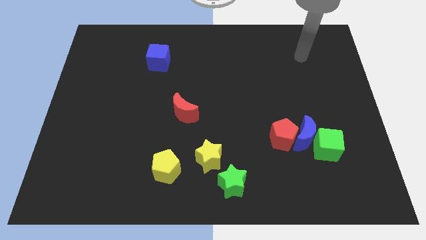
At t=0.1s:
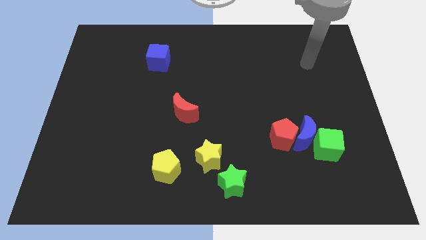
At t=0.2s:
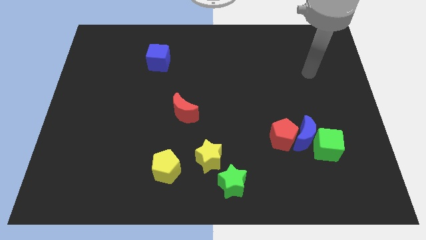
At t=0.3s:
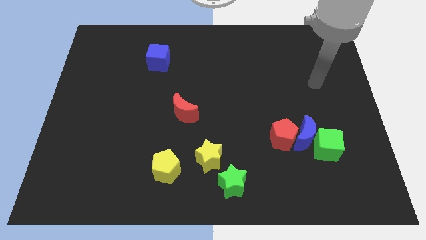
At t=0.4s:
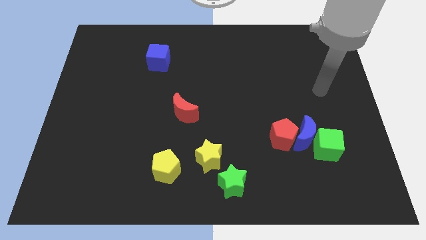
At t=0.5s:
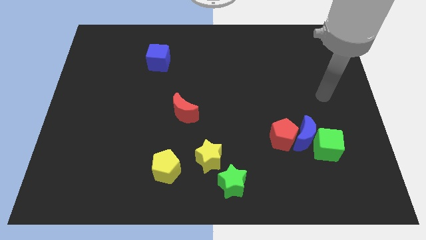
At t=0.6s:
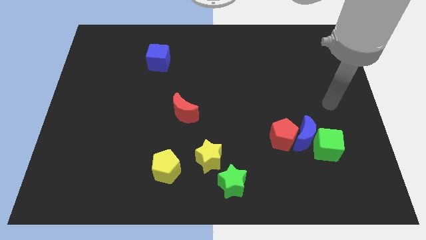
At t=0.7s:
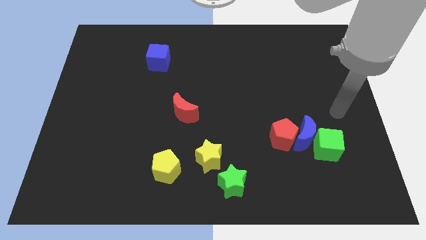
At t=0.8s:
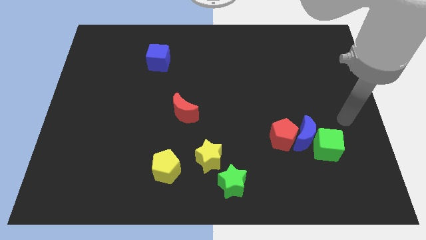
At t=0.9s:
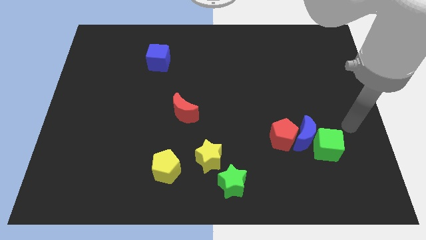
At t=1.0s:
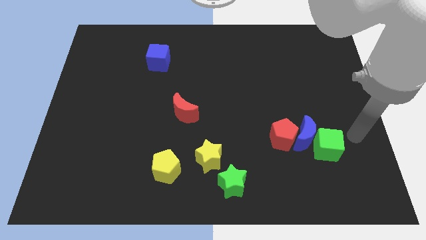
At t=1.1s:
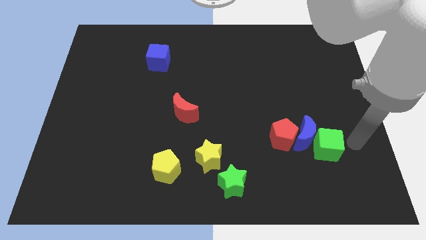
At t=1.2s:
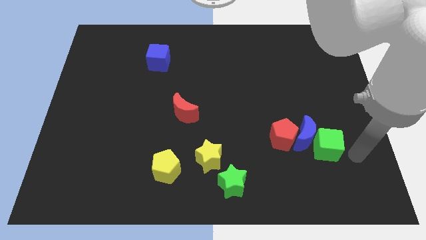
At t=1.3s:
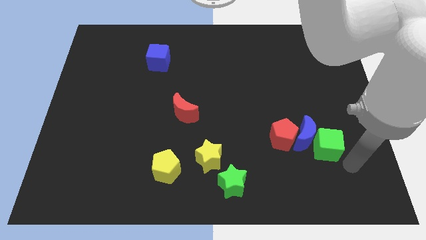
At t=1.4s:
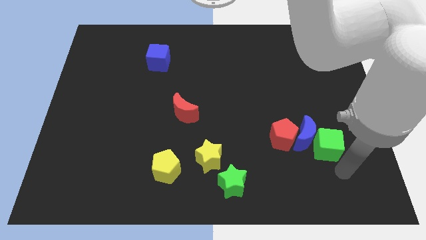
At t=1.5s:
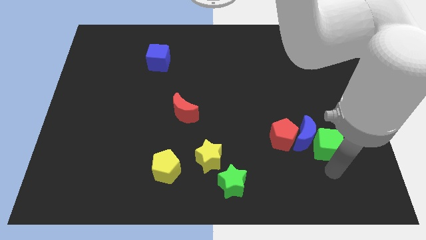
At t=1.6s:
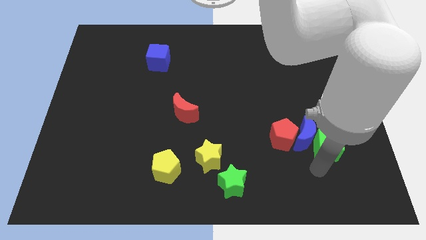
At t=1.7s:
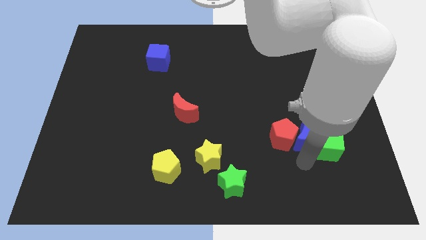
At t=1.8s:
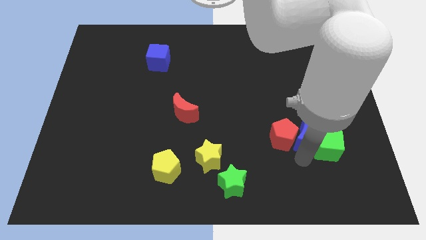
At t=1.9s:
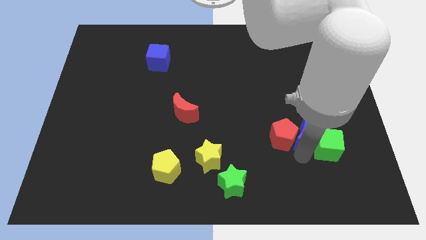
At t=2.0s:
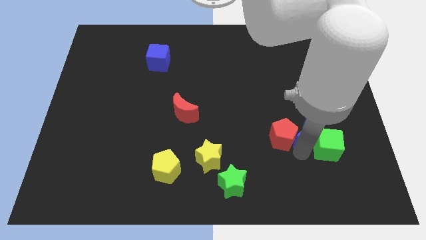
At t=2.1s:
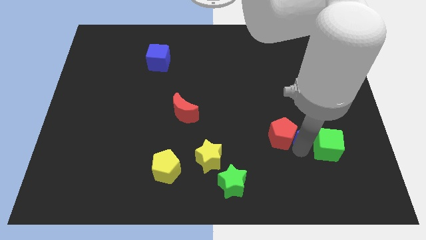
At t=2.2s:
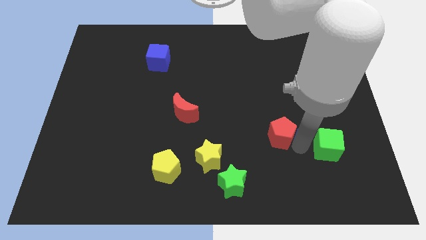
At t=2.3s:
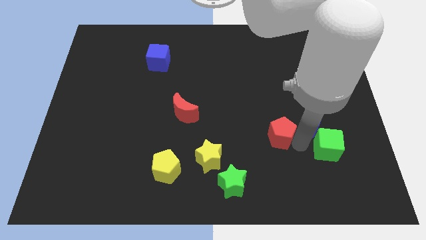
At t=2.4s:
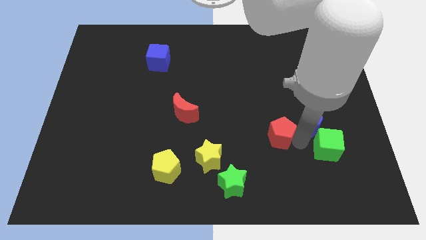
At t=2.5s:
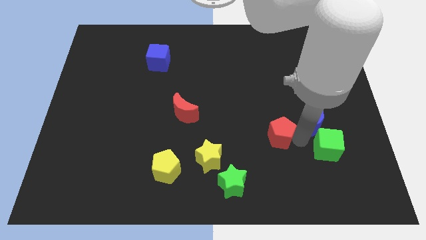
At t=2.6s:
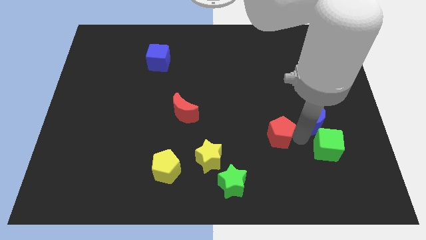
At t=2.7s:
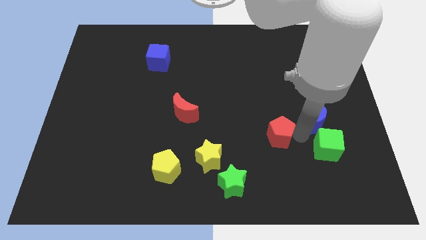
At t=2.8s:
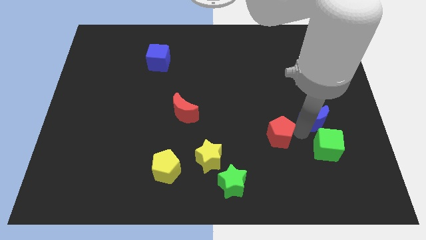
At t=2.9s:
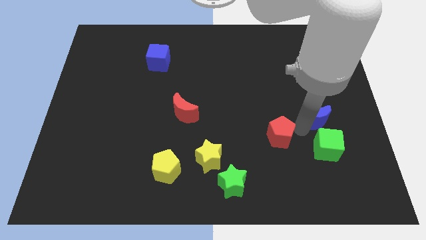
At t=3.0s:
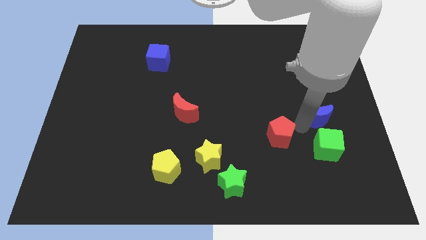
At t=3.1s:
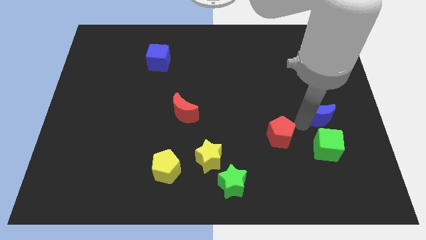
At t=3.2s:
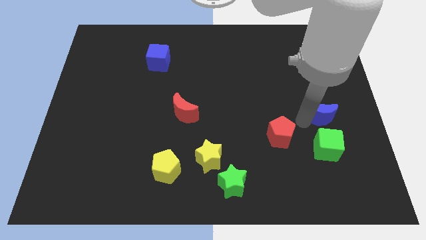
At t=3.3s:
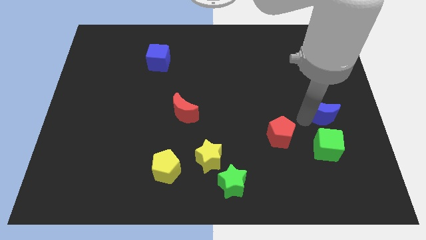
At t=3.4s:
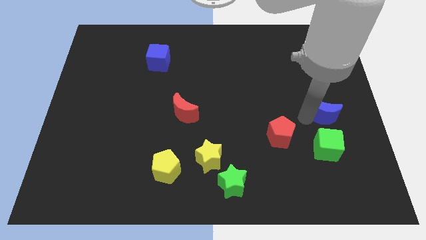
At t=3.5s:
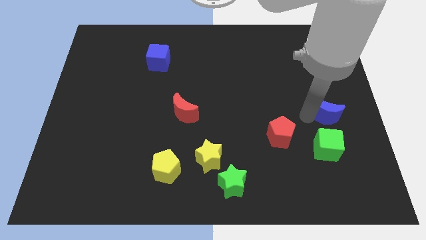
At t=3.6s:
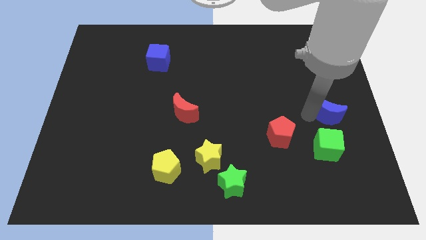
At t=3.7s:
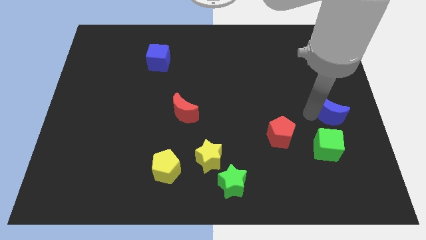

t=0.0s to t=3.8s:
separate the blue moon from the red pentagon and green cube

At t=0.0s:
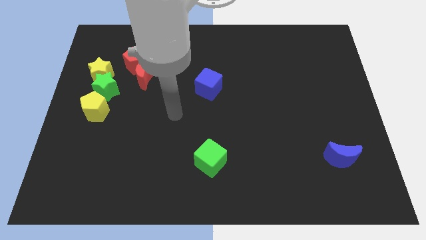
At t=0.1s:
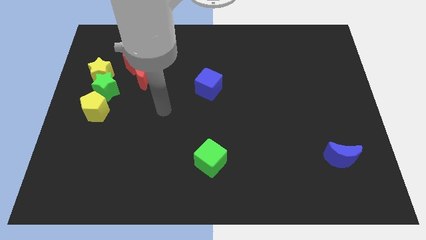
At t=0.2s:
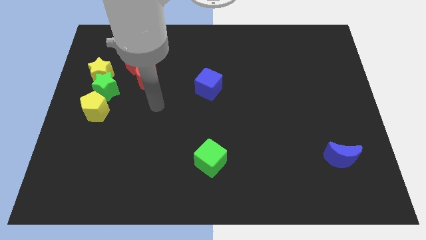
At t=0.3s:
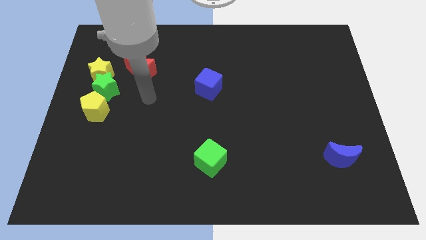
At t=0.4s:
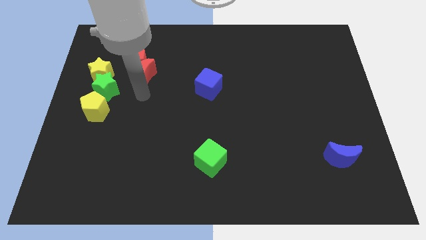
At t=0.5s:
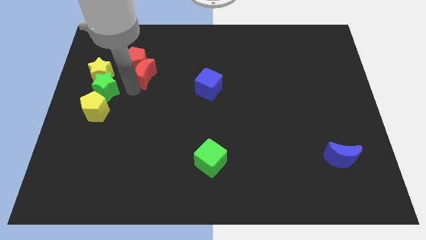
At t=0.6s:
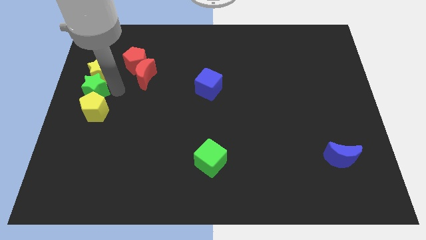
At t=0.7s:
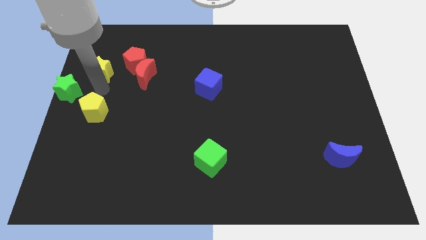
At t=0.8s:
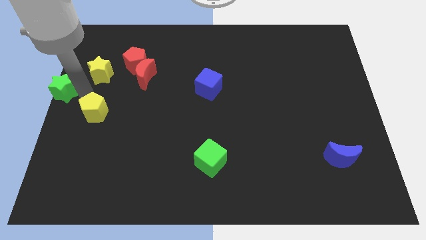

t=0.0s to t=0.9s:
move the yellow pentagon away from the green star

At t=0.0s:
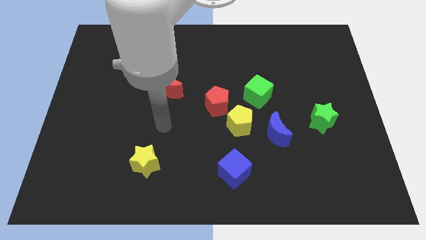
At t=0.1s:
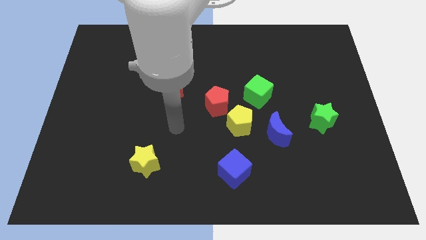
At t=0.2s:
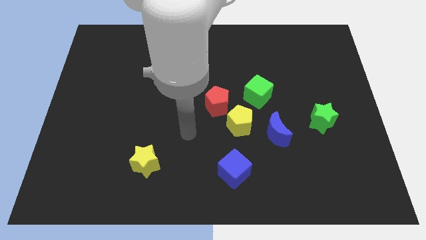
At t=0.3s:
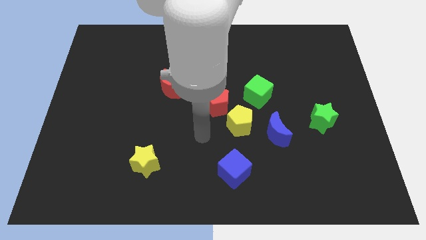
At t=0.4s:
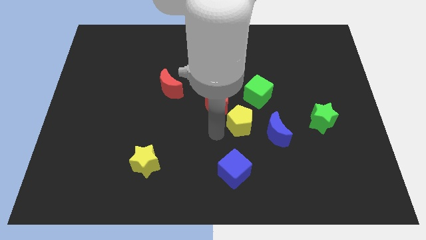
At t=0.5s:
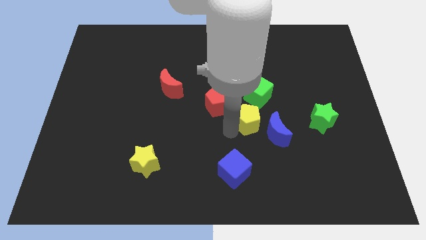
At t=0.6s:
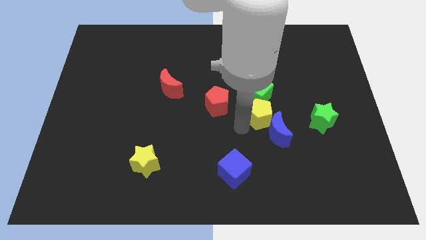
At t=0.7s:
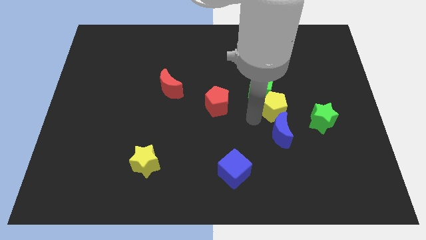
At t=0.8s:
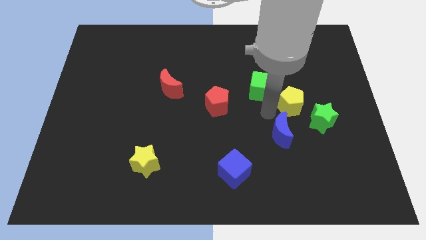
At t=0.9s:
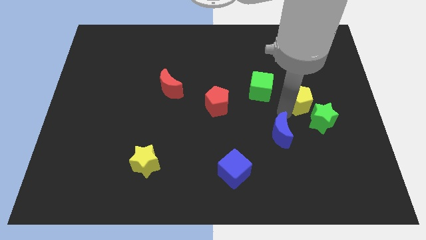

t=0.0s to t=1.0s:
pull the blue moon apart from the yellow pentagon

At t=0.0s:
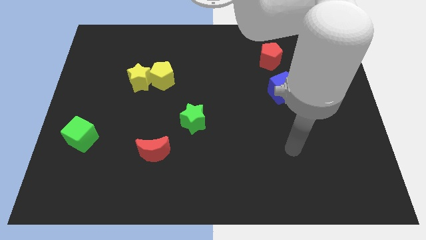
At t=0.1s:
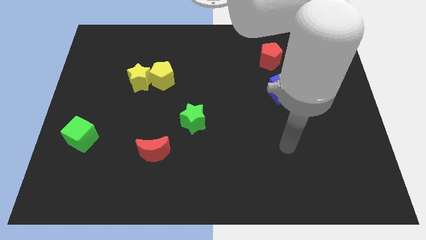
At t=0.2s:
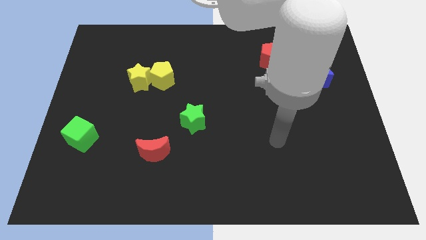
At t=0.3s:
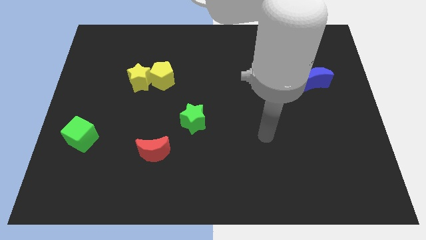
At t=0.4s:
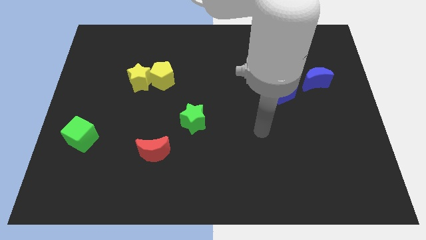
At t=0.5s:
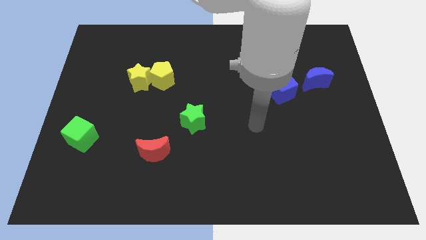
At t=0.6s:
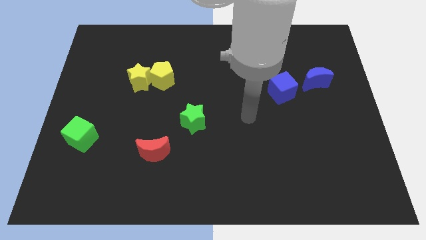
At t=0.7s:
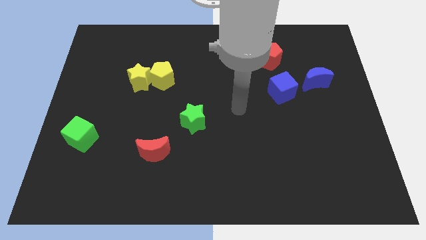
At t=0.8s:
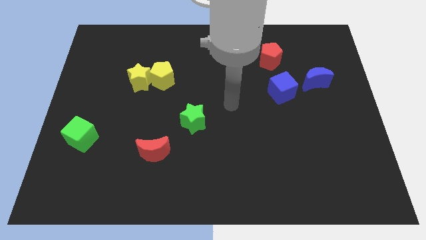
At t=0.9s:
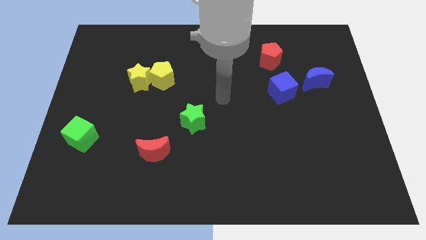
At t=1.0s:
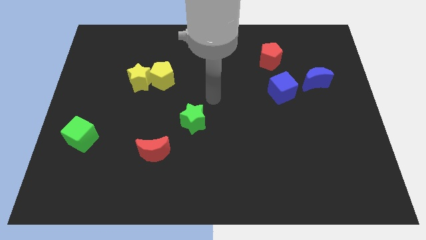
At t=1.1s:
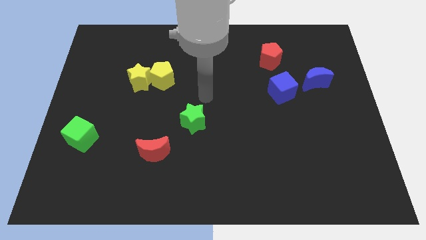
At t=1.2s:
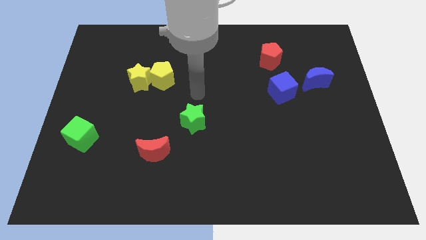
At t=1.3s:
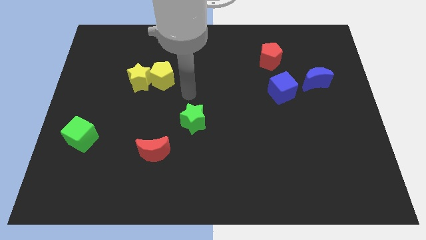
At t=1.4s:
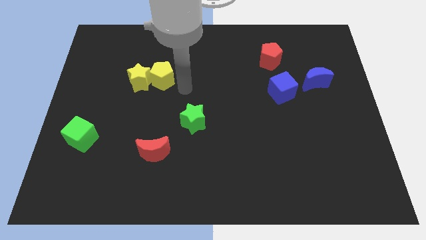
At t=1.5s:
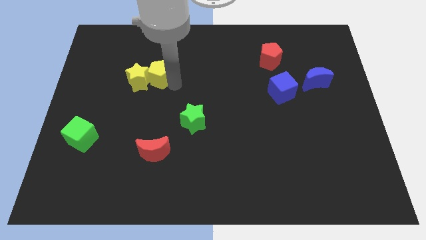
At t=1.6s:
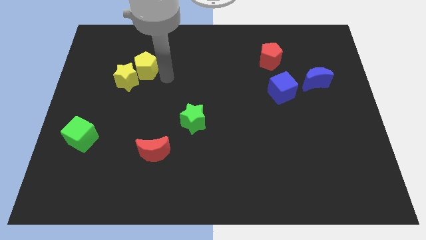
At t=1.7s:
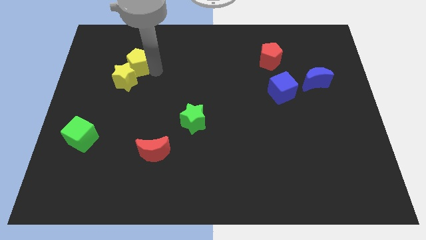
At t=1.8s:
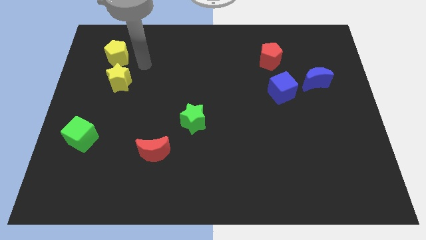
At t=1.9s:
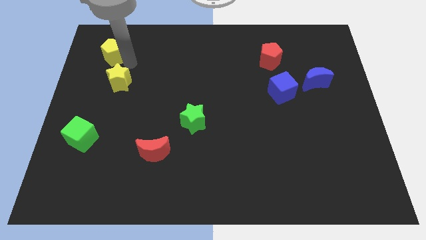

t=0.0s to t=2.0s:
separate the yellow star from the yellow pentagon

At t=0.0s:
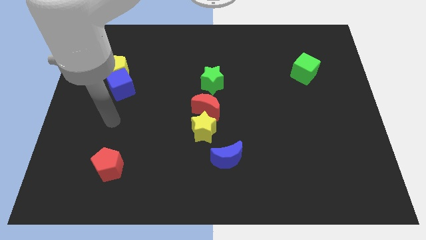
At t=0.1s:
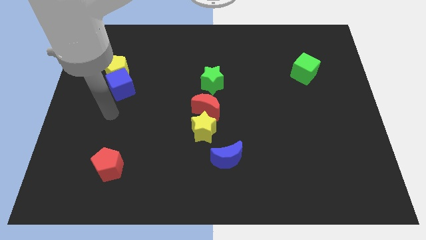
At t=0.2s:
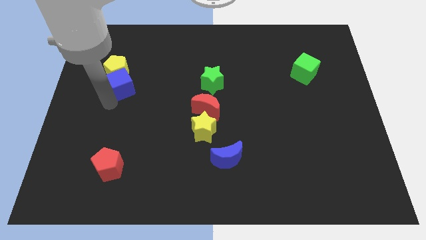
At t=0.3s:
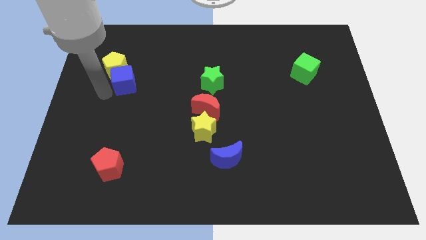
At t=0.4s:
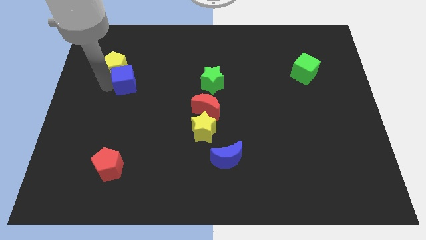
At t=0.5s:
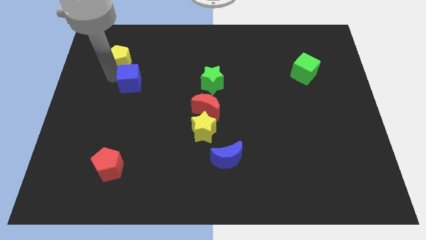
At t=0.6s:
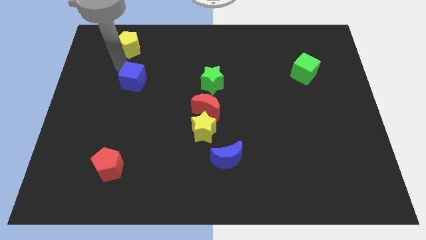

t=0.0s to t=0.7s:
move the blue cube away from the yellow pentagon

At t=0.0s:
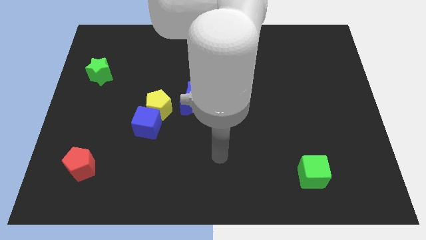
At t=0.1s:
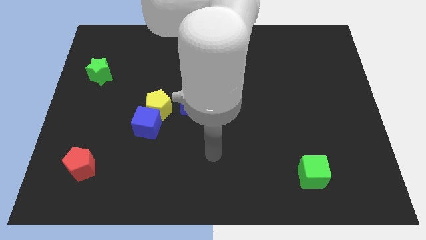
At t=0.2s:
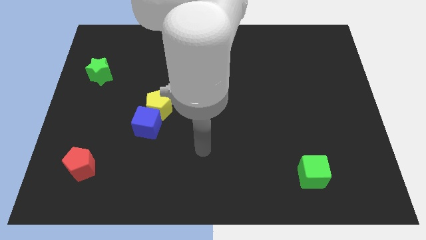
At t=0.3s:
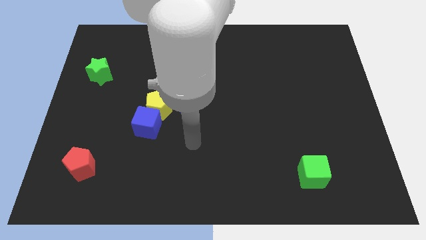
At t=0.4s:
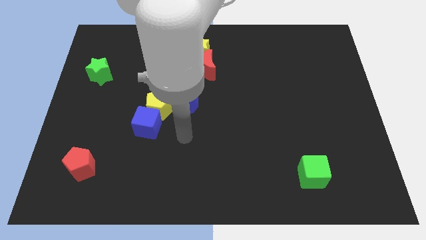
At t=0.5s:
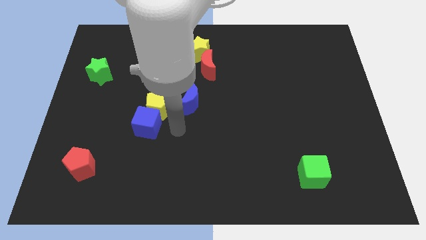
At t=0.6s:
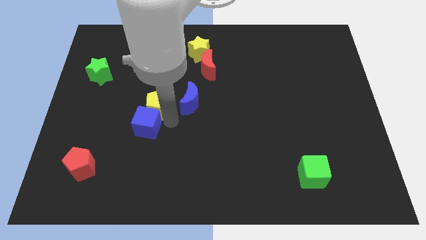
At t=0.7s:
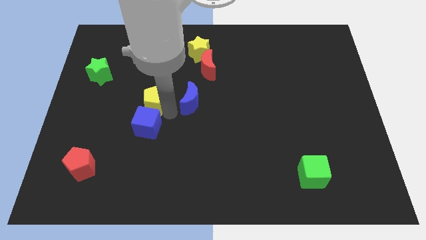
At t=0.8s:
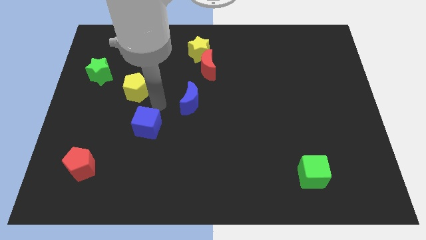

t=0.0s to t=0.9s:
pull the blue cube apart from the yellow pentagon
